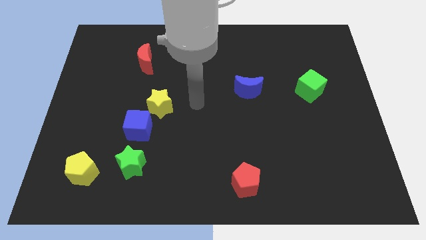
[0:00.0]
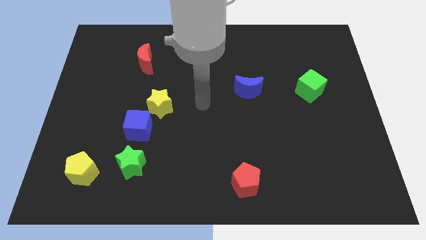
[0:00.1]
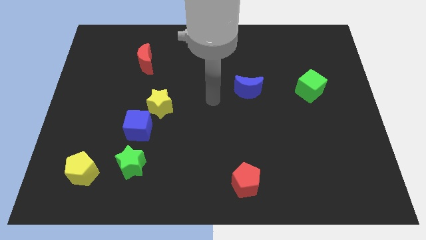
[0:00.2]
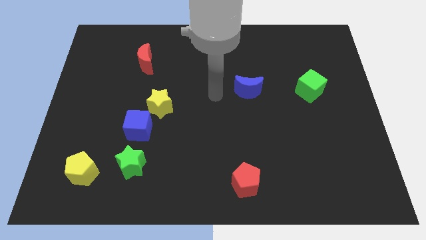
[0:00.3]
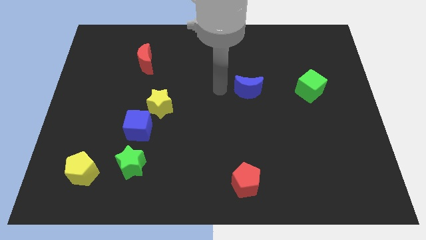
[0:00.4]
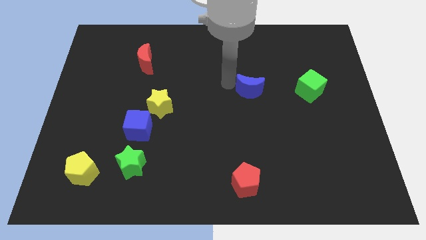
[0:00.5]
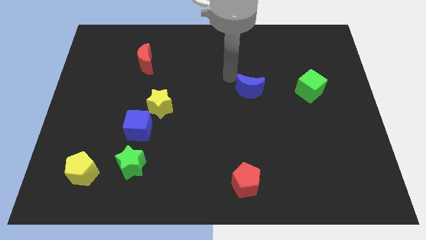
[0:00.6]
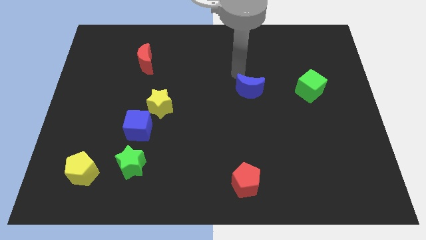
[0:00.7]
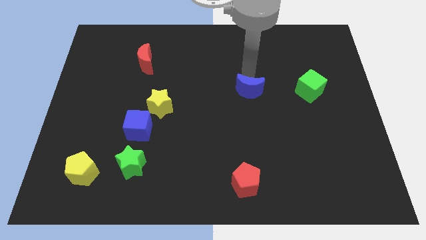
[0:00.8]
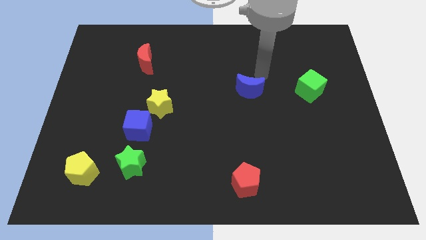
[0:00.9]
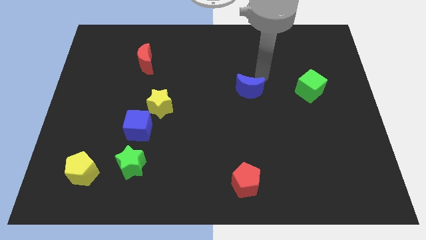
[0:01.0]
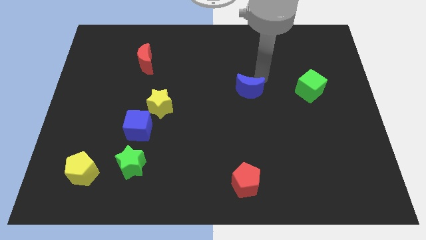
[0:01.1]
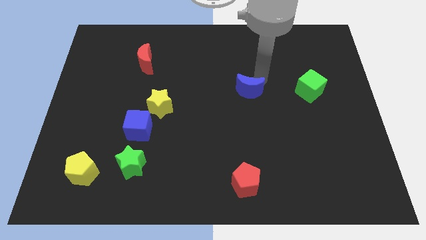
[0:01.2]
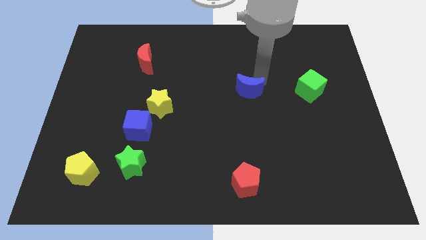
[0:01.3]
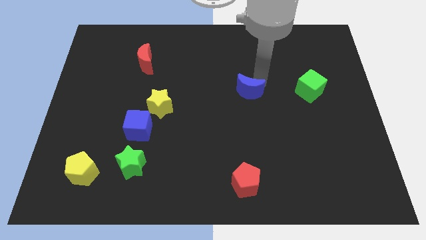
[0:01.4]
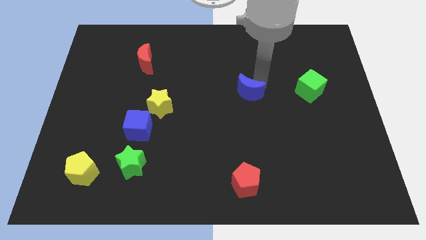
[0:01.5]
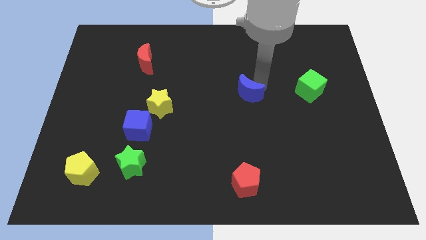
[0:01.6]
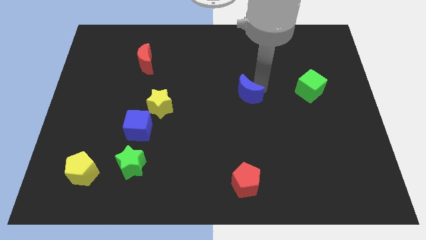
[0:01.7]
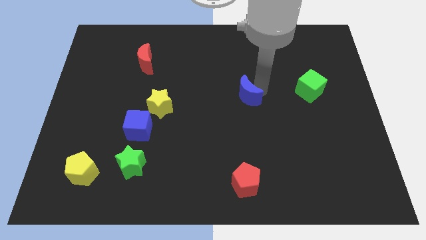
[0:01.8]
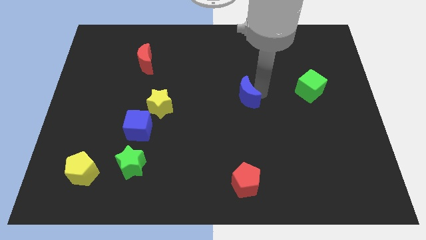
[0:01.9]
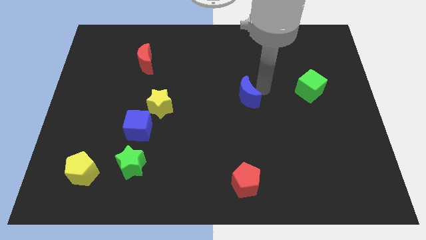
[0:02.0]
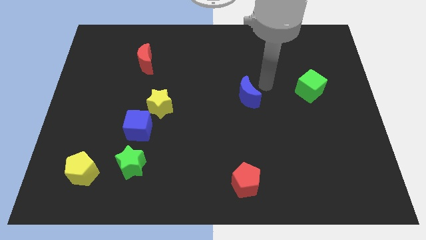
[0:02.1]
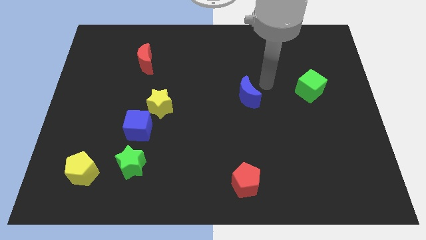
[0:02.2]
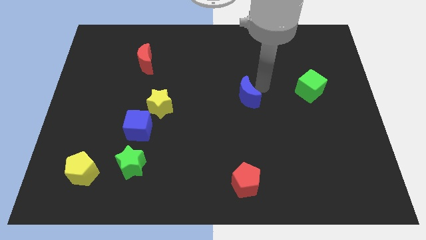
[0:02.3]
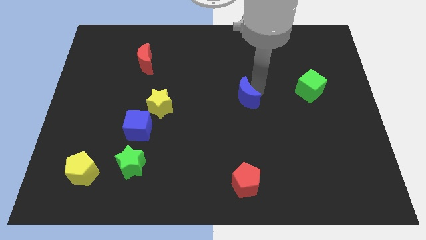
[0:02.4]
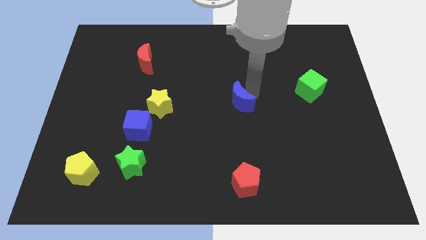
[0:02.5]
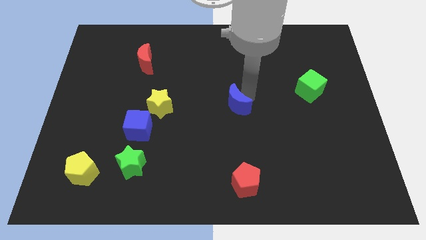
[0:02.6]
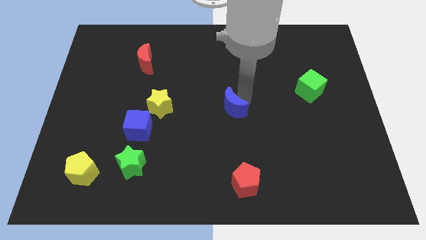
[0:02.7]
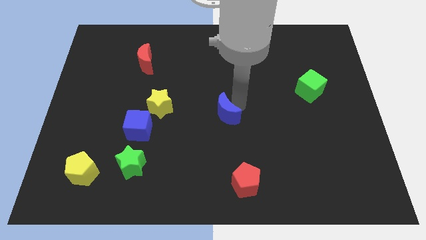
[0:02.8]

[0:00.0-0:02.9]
move the blue moon somewhat diagonally down and left

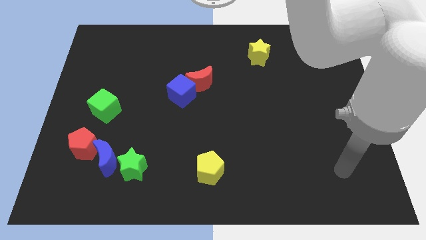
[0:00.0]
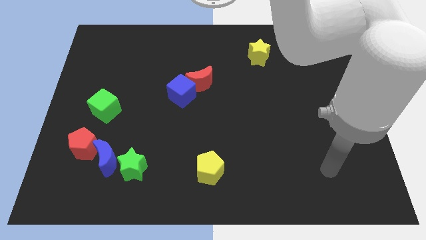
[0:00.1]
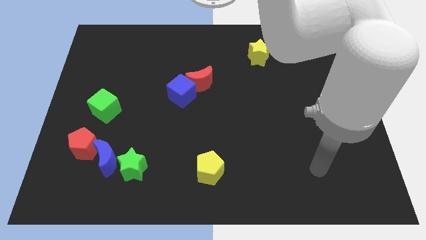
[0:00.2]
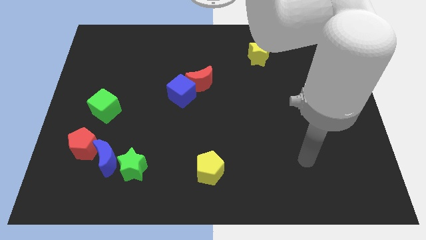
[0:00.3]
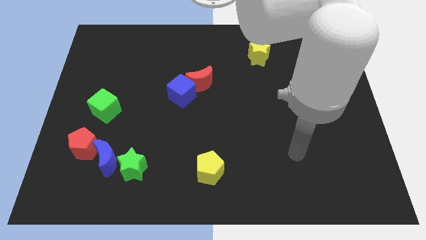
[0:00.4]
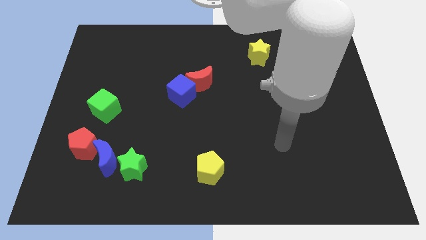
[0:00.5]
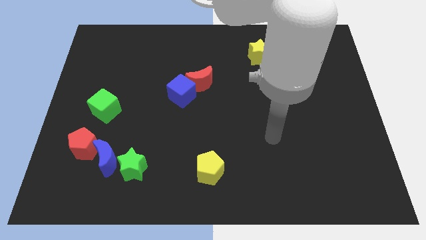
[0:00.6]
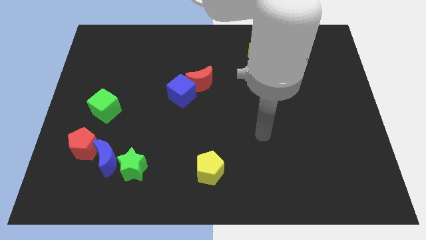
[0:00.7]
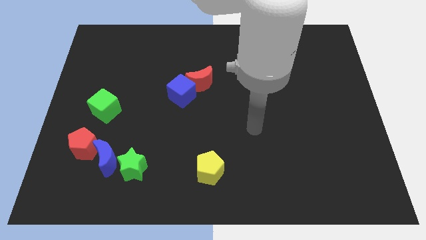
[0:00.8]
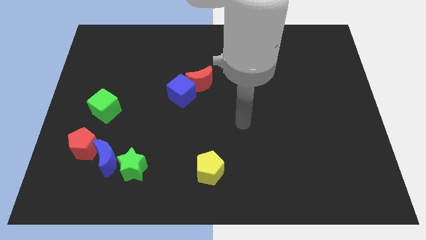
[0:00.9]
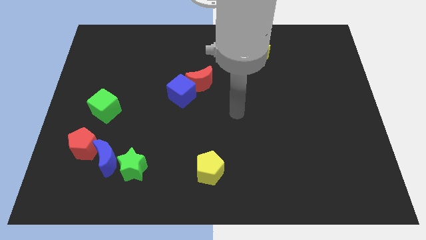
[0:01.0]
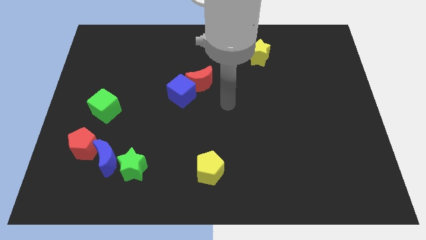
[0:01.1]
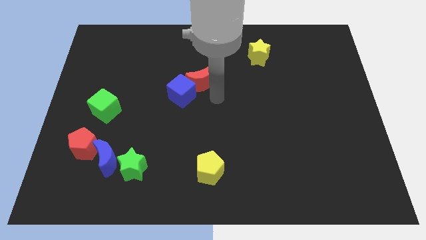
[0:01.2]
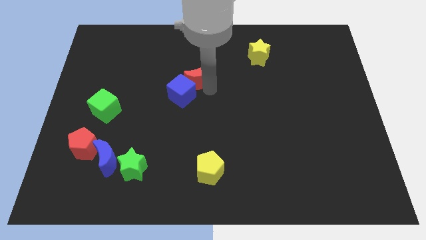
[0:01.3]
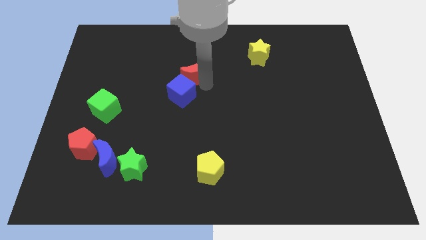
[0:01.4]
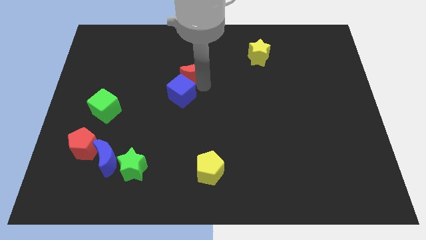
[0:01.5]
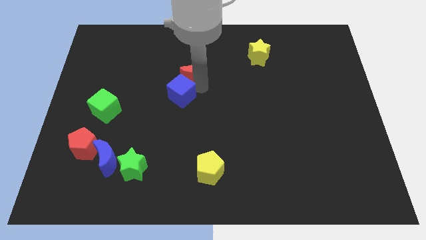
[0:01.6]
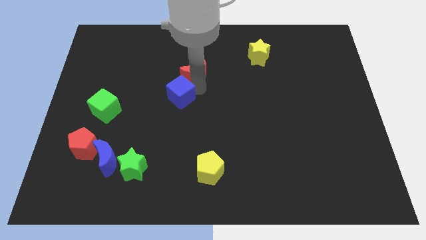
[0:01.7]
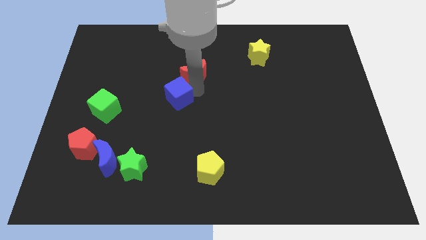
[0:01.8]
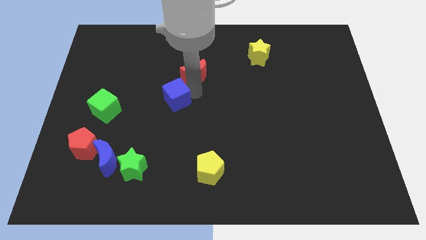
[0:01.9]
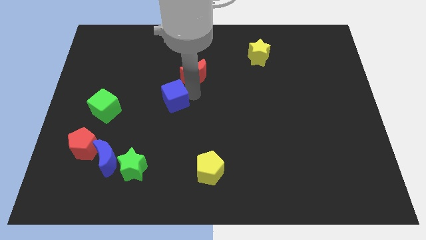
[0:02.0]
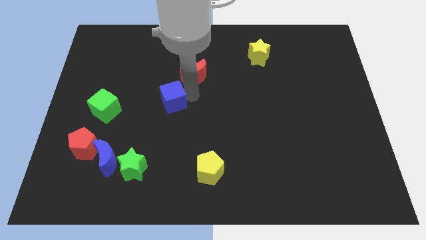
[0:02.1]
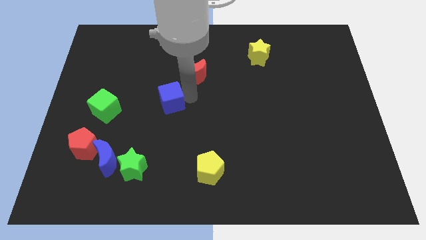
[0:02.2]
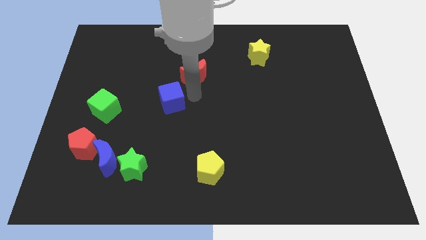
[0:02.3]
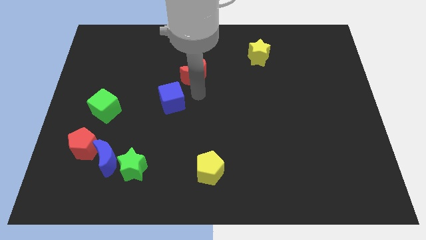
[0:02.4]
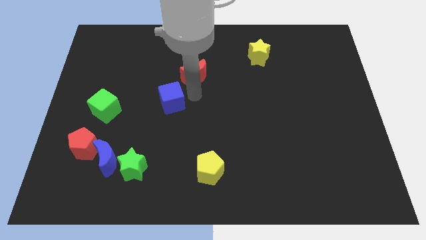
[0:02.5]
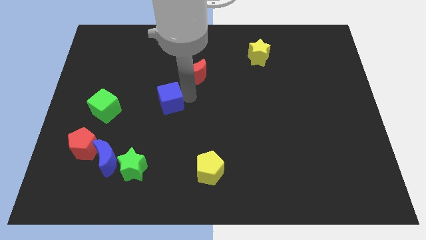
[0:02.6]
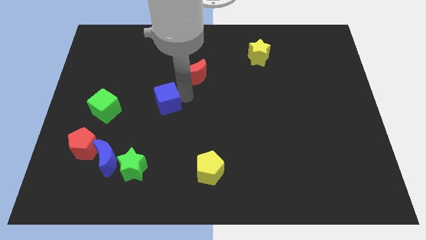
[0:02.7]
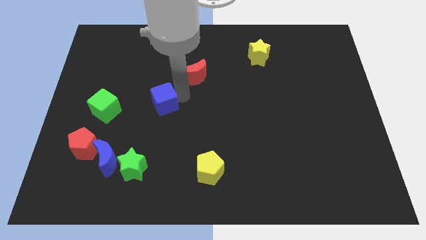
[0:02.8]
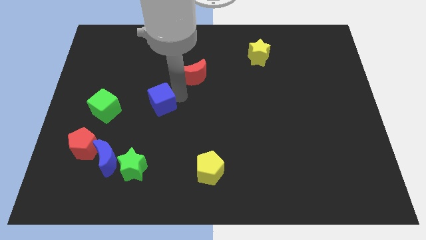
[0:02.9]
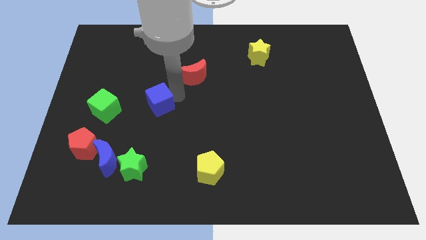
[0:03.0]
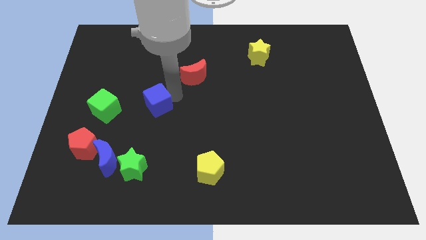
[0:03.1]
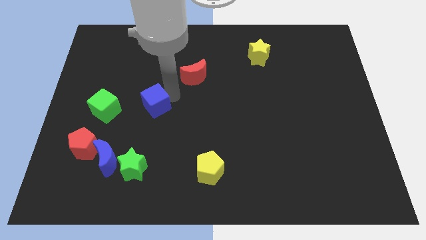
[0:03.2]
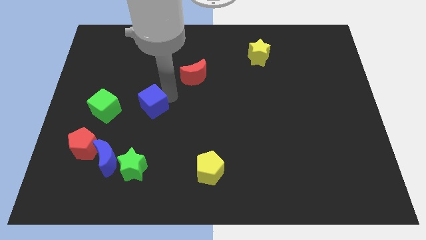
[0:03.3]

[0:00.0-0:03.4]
push the blue cube a bit down and then to the left

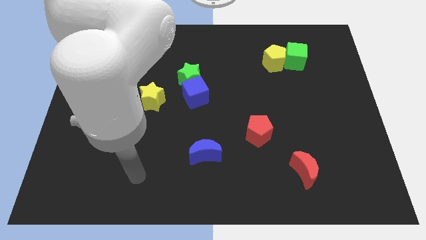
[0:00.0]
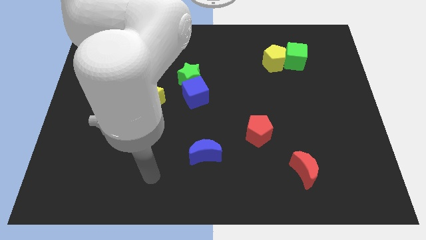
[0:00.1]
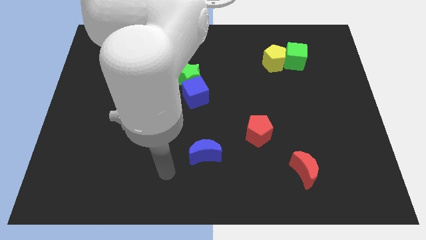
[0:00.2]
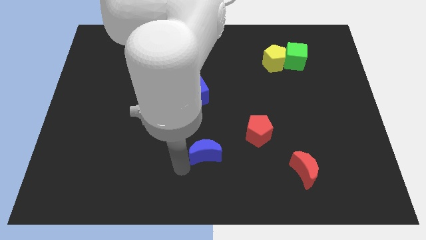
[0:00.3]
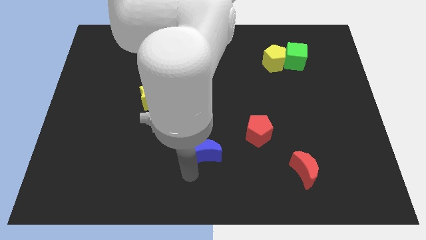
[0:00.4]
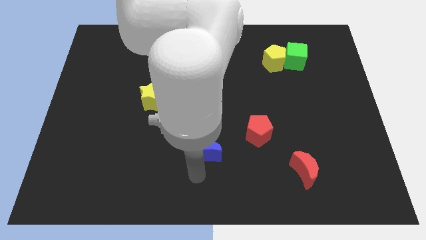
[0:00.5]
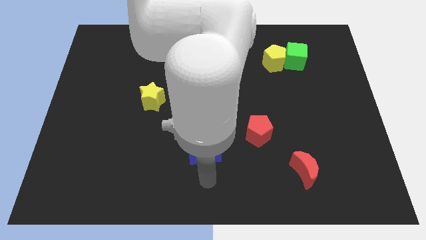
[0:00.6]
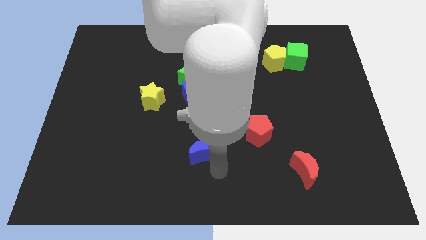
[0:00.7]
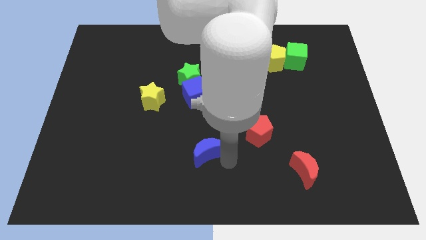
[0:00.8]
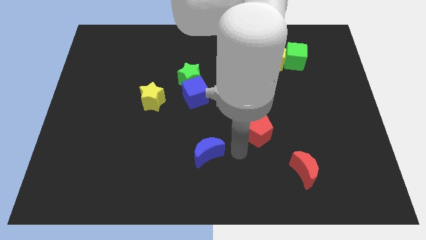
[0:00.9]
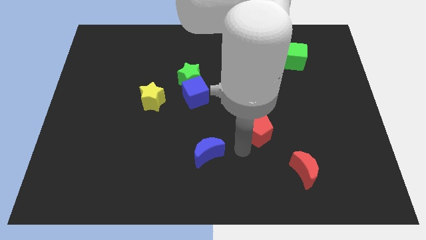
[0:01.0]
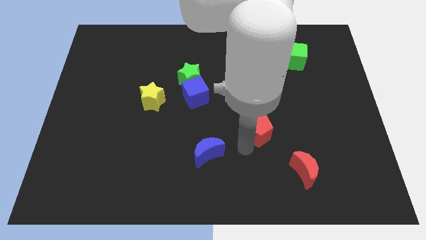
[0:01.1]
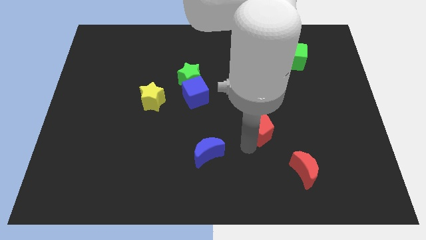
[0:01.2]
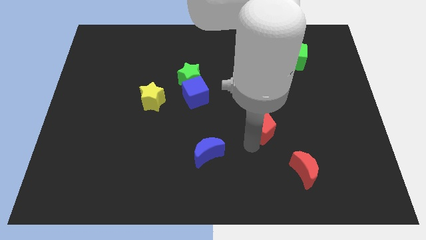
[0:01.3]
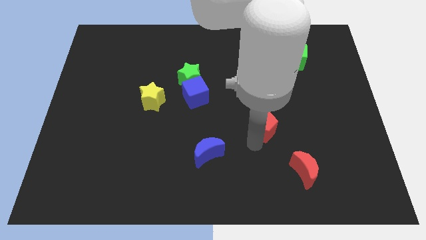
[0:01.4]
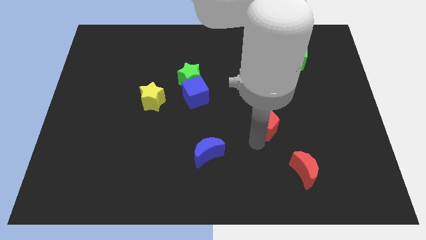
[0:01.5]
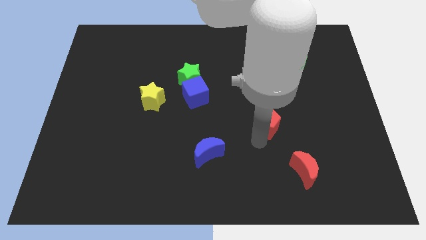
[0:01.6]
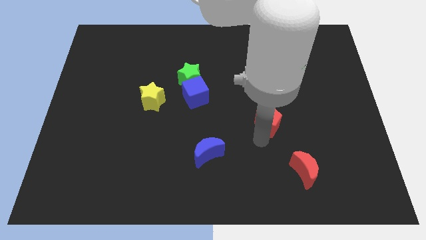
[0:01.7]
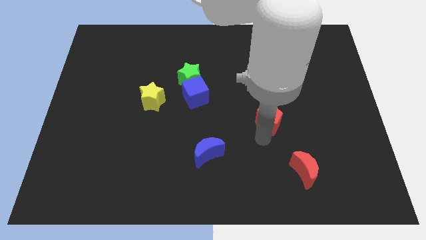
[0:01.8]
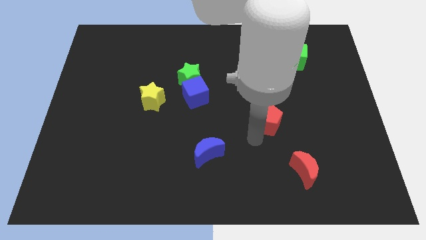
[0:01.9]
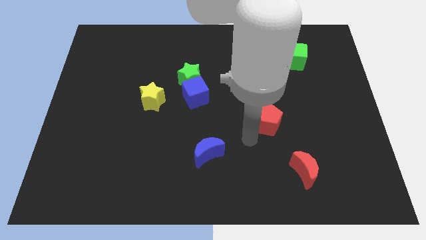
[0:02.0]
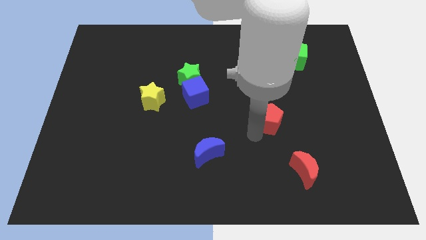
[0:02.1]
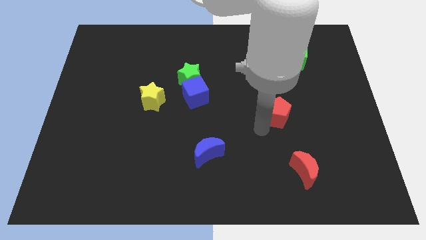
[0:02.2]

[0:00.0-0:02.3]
slightly push the red pentagon up and then to the right
